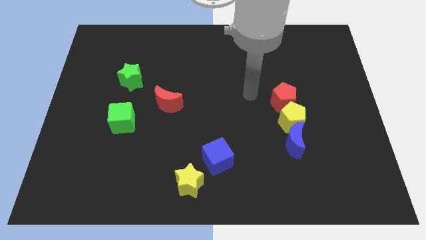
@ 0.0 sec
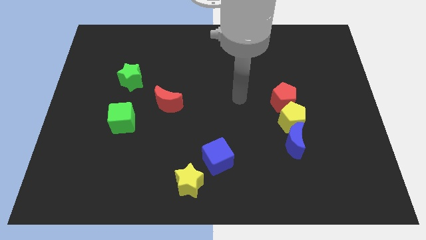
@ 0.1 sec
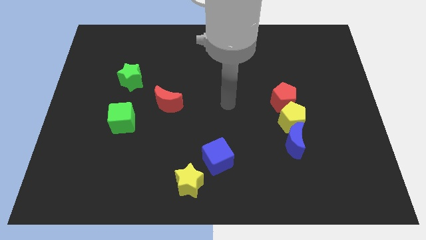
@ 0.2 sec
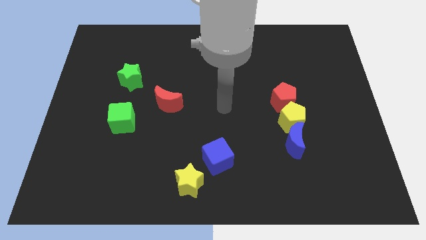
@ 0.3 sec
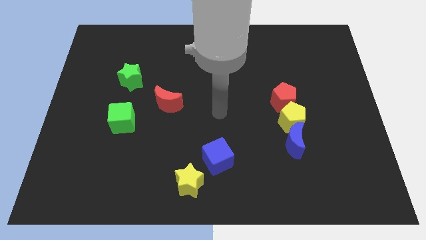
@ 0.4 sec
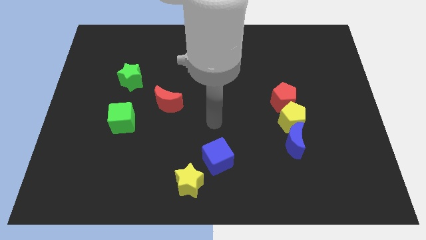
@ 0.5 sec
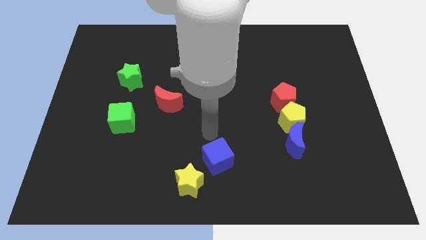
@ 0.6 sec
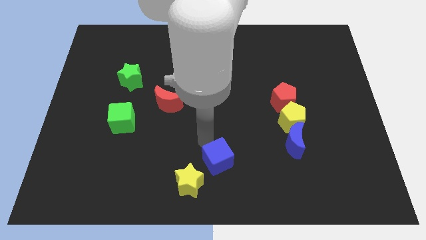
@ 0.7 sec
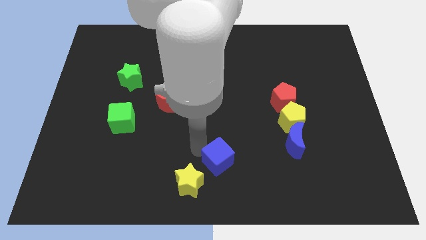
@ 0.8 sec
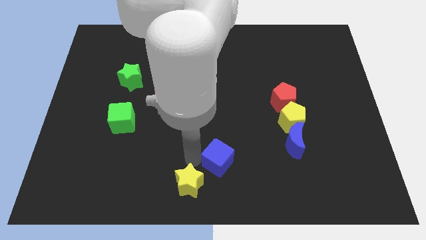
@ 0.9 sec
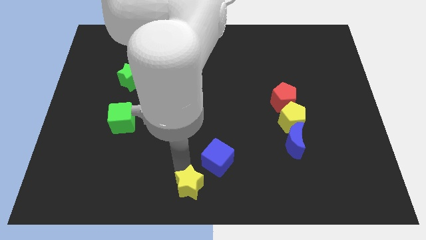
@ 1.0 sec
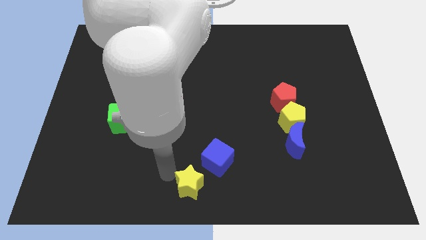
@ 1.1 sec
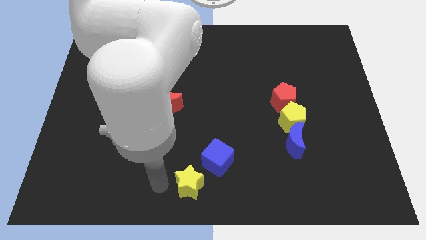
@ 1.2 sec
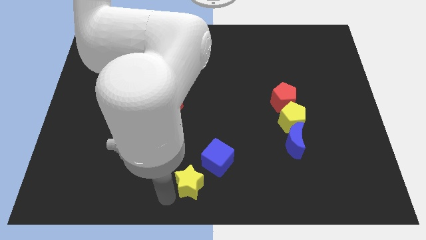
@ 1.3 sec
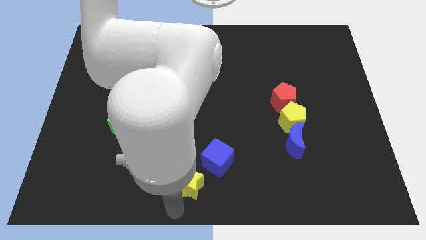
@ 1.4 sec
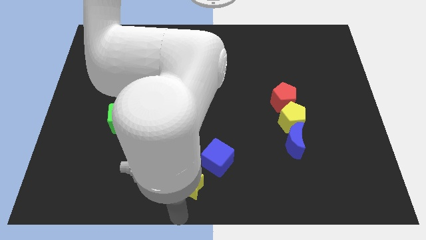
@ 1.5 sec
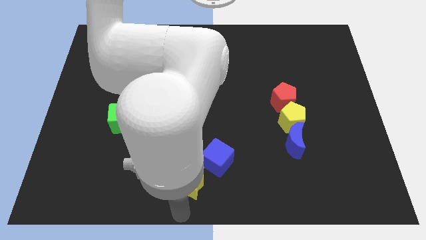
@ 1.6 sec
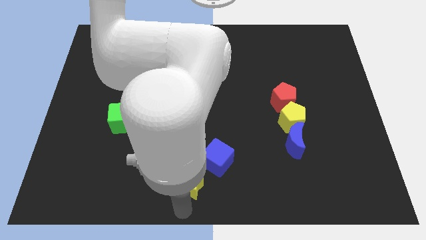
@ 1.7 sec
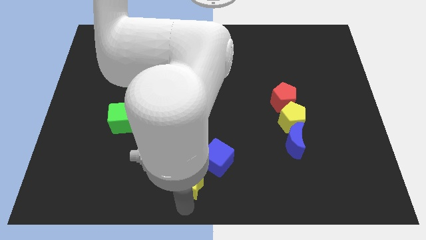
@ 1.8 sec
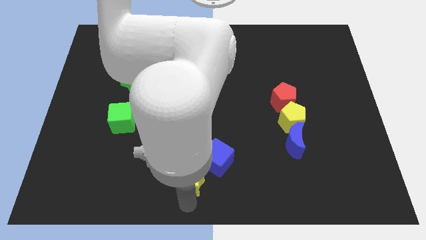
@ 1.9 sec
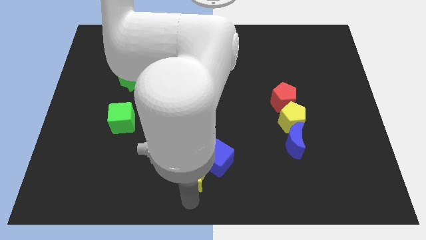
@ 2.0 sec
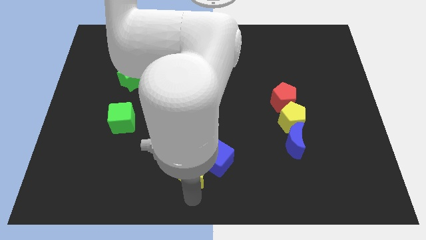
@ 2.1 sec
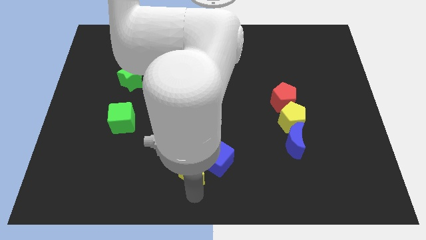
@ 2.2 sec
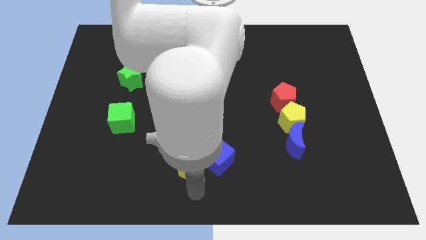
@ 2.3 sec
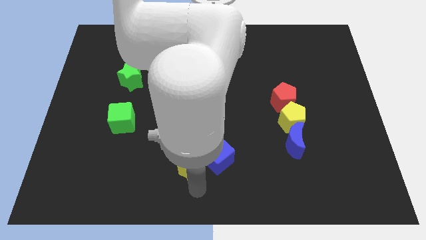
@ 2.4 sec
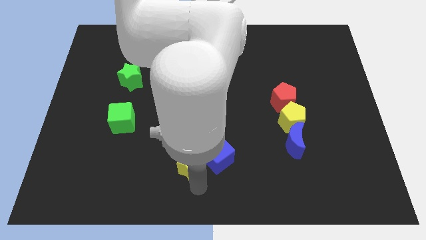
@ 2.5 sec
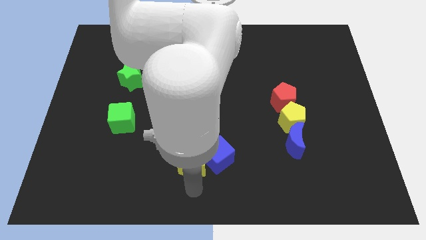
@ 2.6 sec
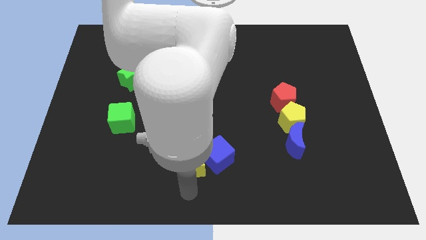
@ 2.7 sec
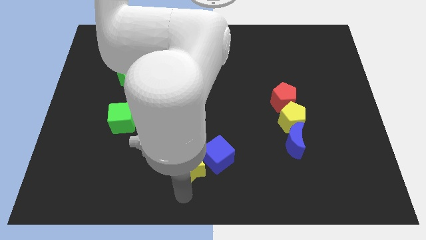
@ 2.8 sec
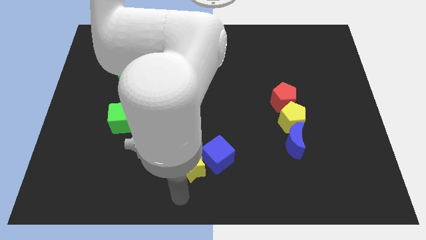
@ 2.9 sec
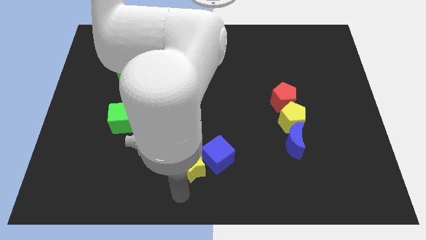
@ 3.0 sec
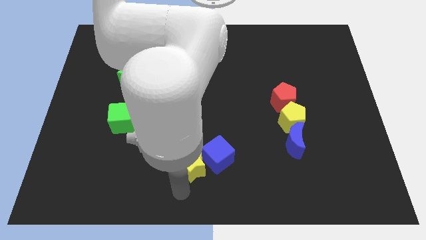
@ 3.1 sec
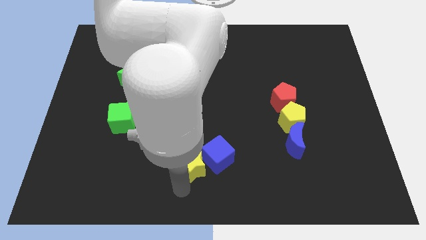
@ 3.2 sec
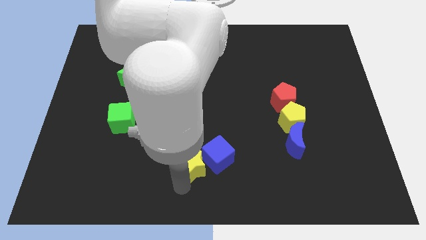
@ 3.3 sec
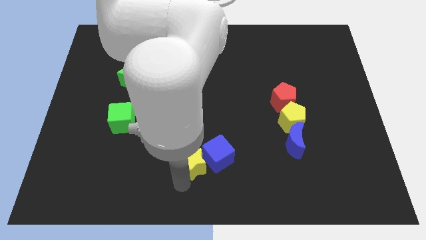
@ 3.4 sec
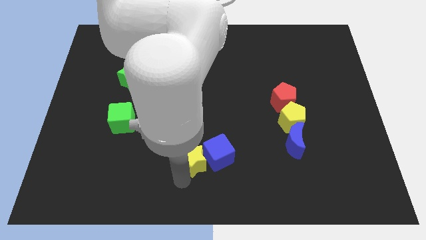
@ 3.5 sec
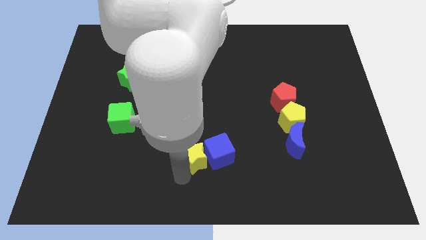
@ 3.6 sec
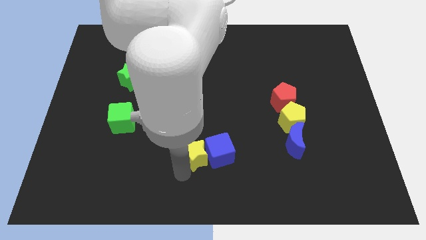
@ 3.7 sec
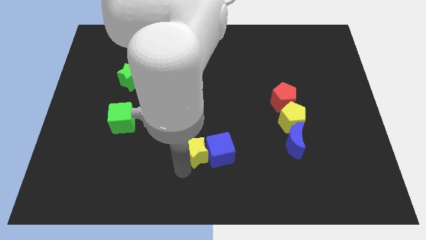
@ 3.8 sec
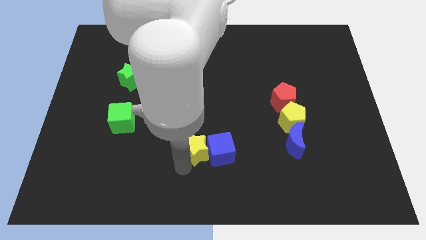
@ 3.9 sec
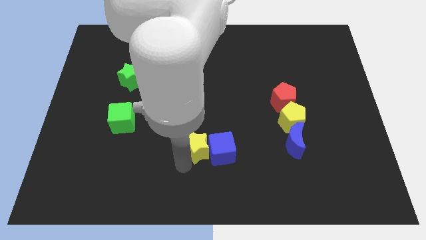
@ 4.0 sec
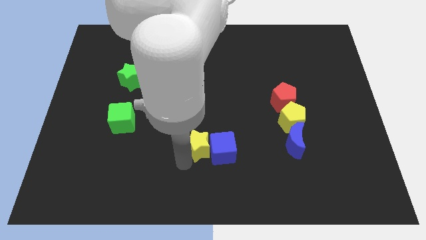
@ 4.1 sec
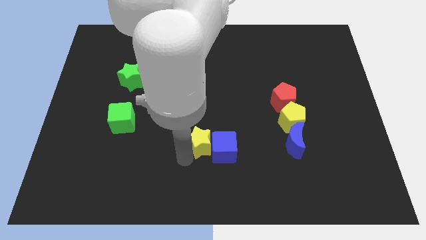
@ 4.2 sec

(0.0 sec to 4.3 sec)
slightly move the yellow star up and then right

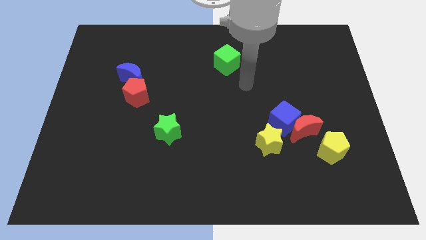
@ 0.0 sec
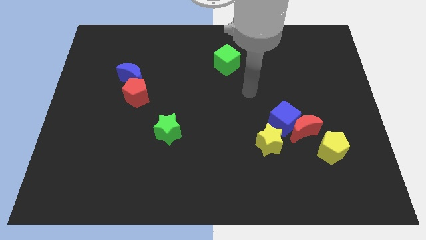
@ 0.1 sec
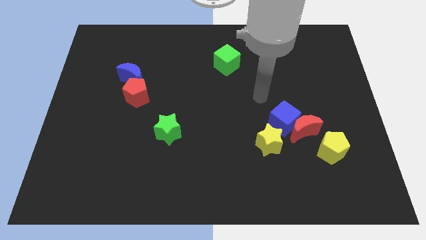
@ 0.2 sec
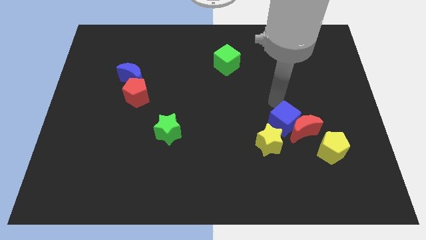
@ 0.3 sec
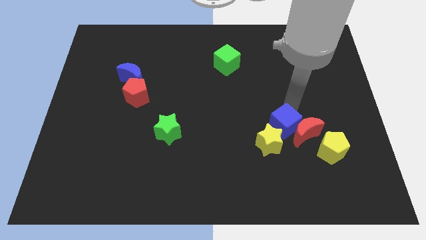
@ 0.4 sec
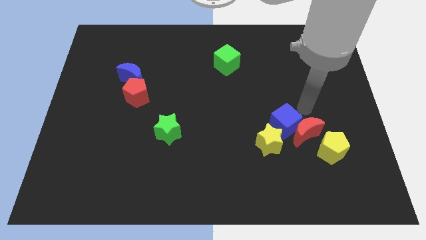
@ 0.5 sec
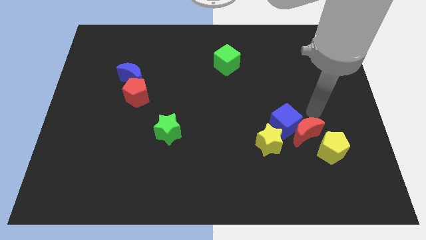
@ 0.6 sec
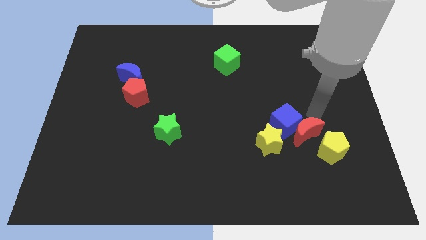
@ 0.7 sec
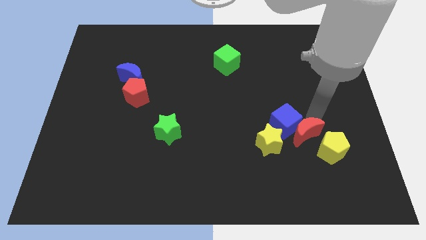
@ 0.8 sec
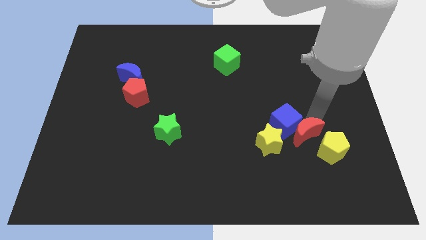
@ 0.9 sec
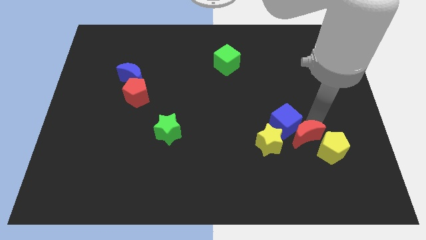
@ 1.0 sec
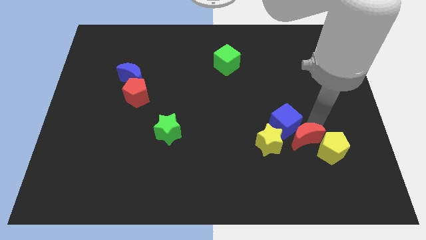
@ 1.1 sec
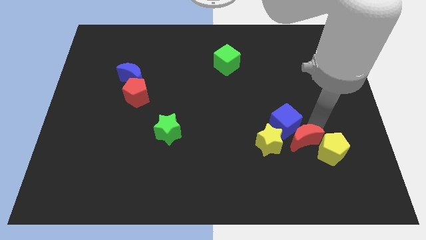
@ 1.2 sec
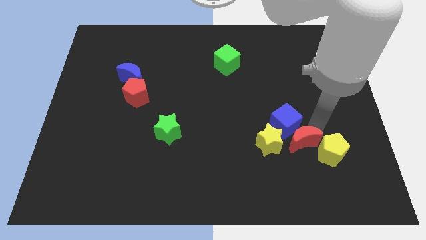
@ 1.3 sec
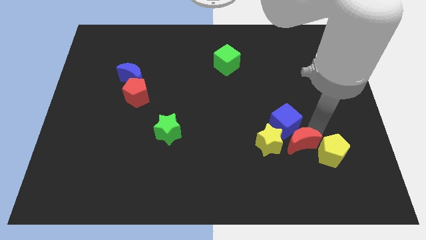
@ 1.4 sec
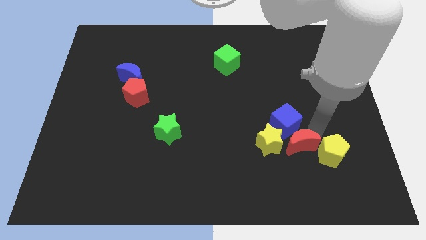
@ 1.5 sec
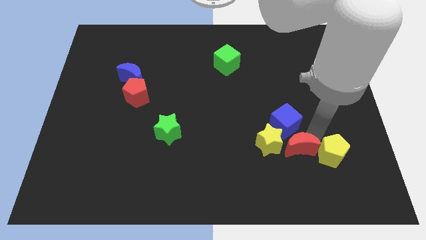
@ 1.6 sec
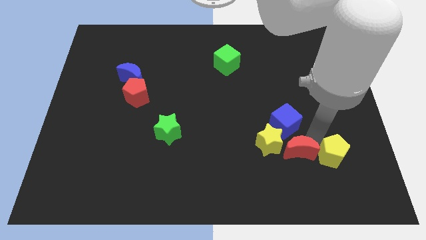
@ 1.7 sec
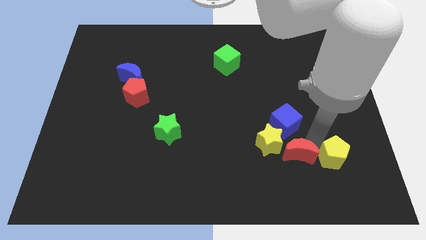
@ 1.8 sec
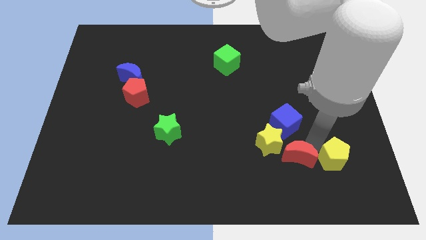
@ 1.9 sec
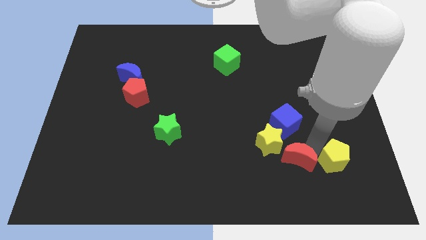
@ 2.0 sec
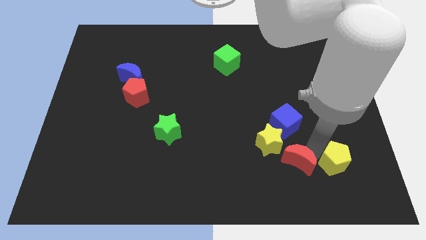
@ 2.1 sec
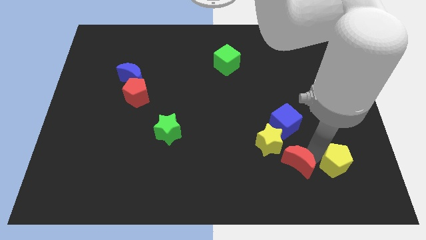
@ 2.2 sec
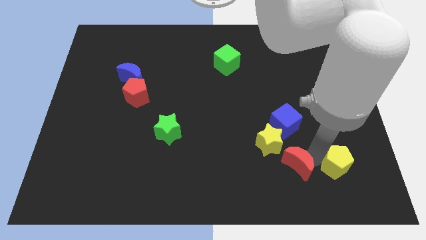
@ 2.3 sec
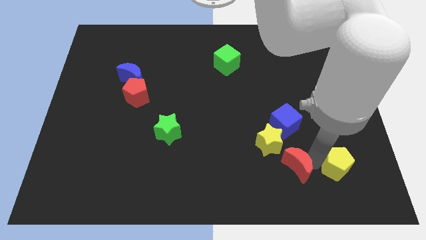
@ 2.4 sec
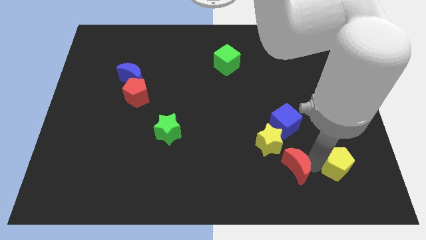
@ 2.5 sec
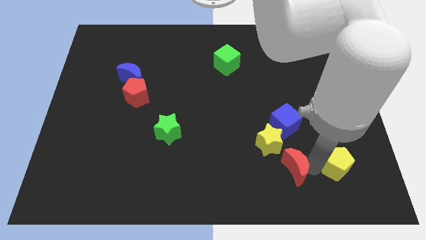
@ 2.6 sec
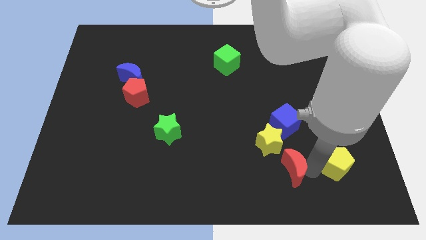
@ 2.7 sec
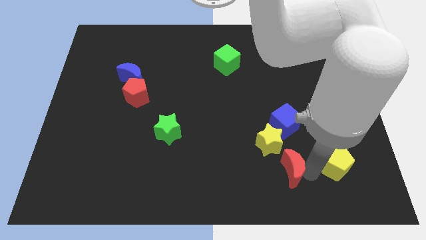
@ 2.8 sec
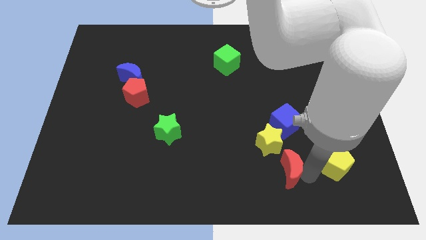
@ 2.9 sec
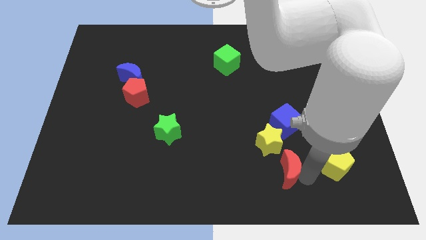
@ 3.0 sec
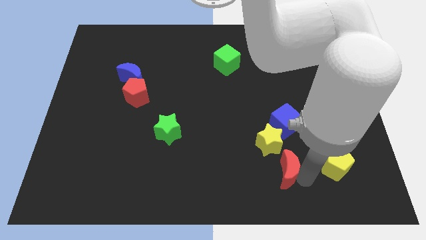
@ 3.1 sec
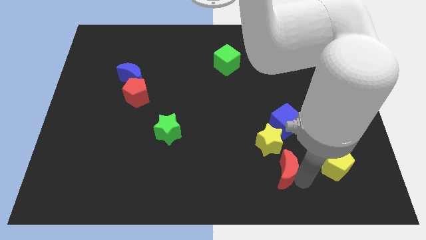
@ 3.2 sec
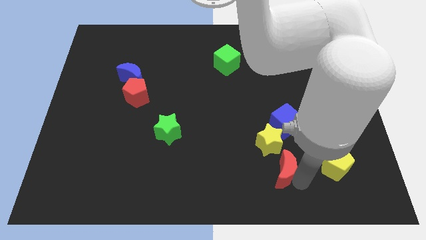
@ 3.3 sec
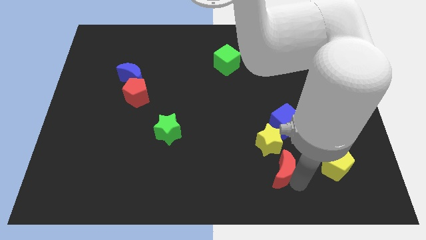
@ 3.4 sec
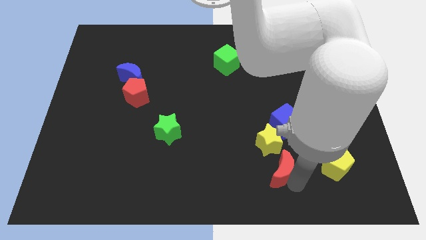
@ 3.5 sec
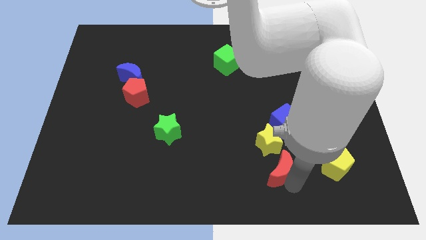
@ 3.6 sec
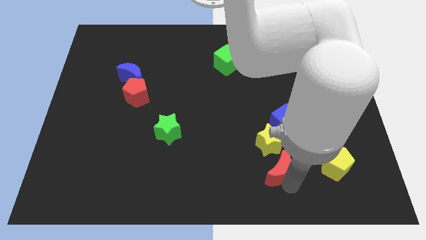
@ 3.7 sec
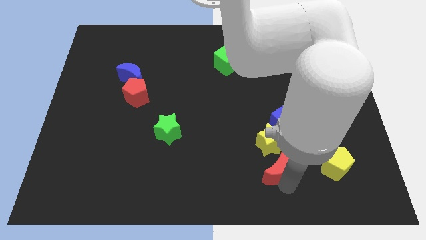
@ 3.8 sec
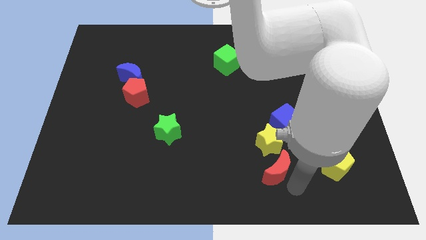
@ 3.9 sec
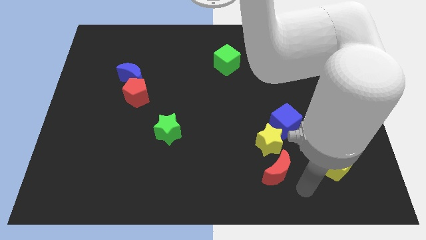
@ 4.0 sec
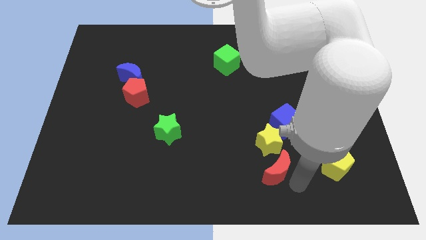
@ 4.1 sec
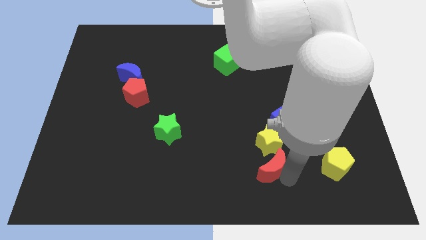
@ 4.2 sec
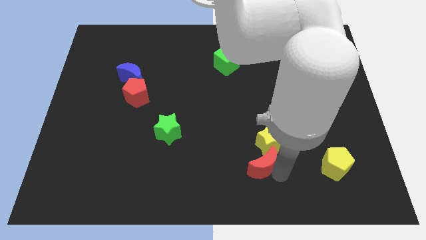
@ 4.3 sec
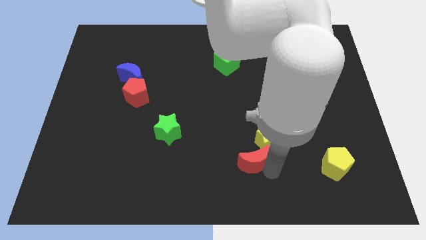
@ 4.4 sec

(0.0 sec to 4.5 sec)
push the red moon somewhat left
